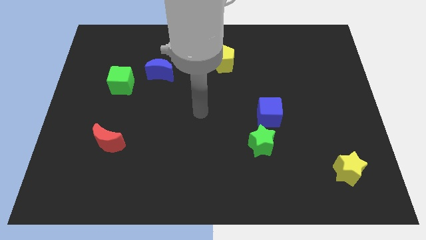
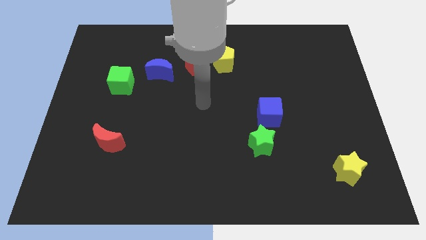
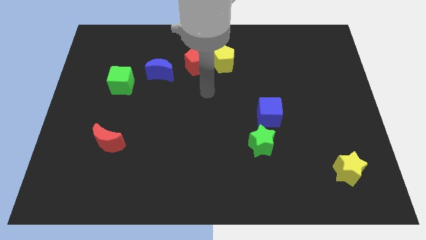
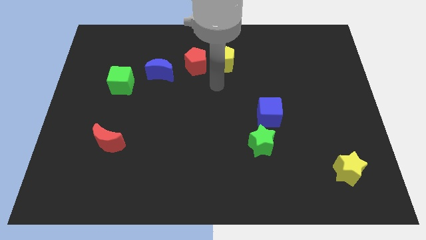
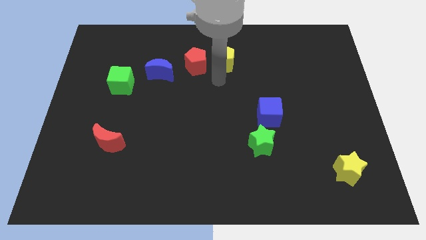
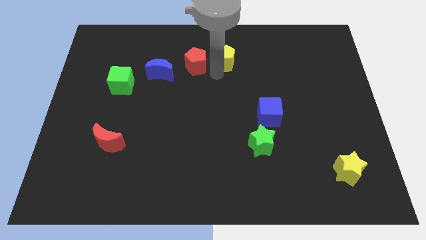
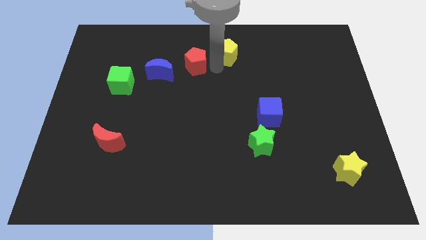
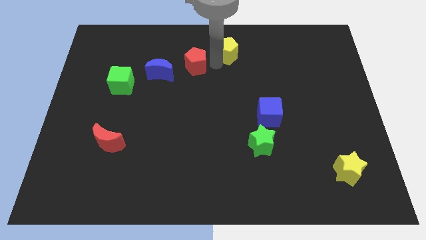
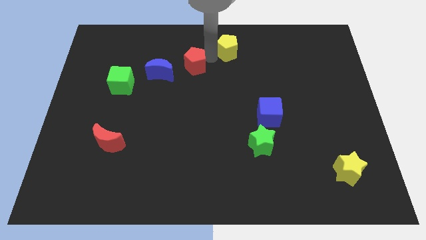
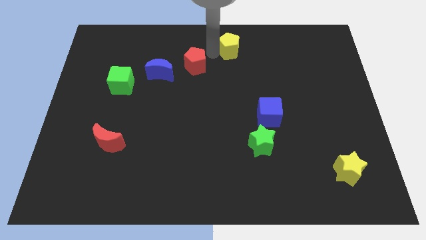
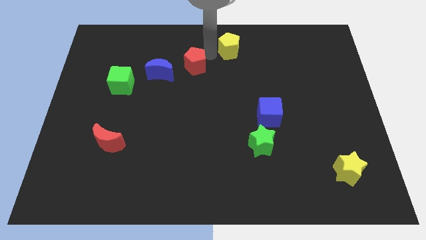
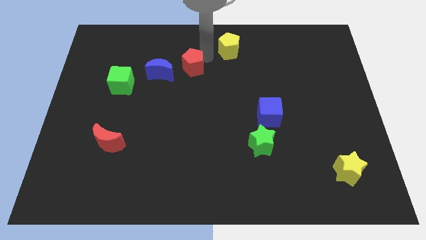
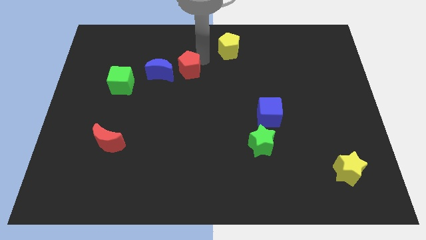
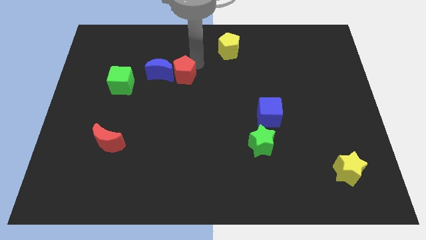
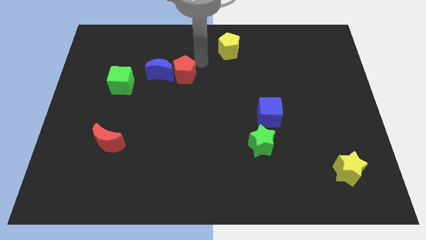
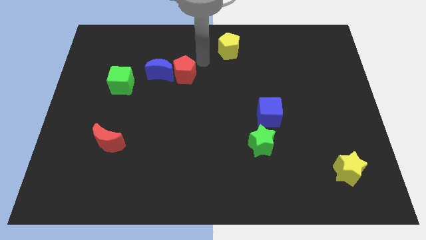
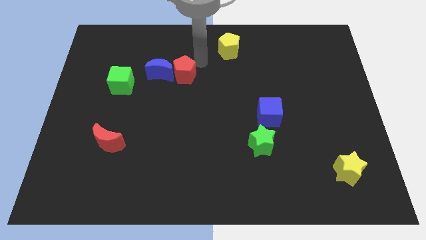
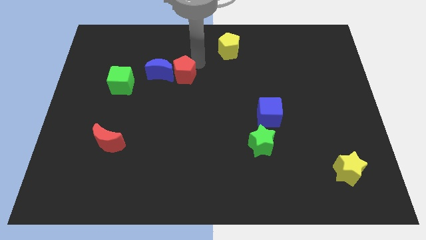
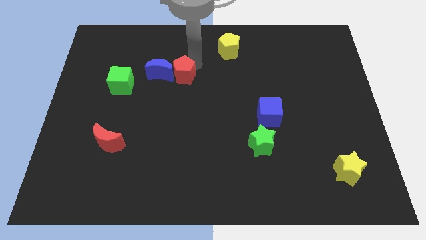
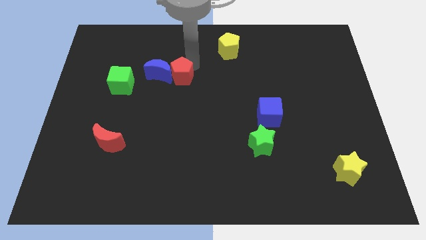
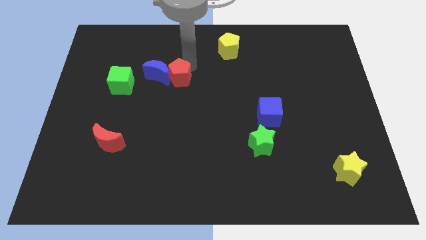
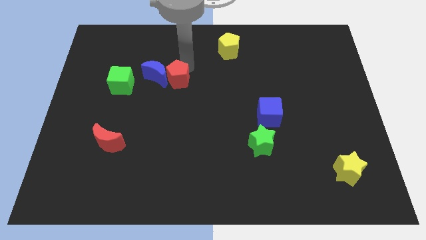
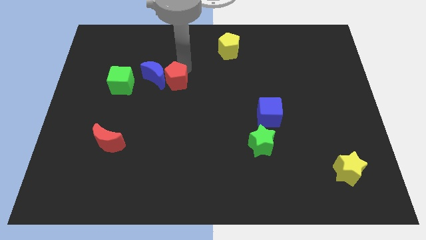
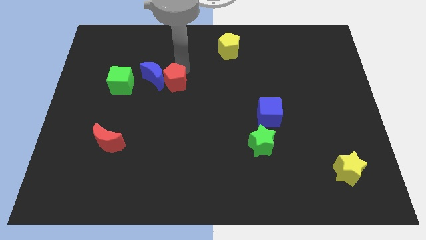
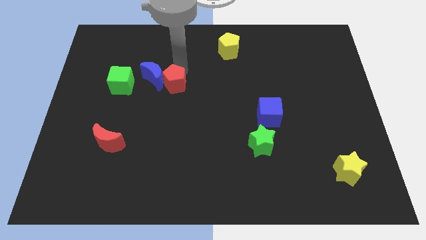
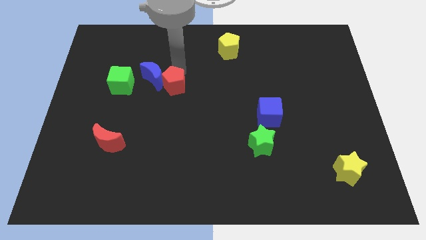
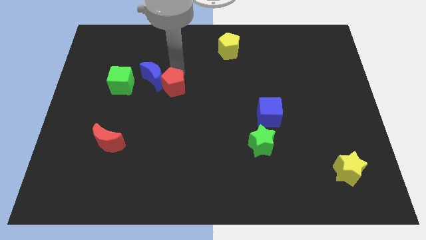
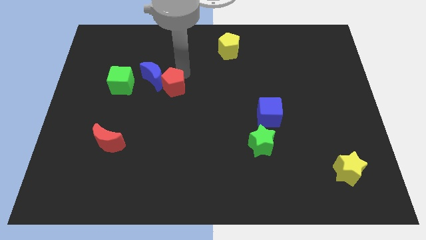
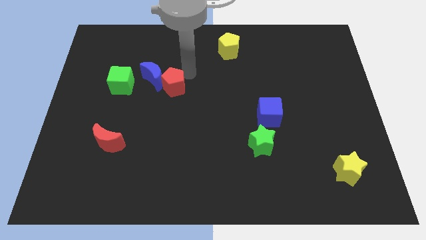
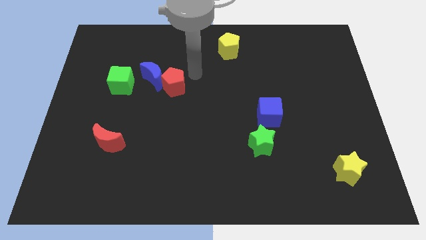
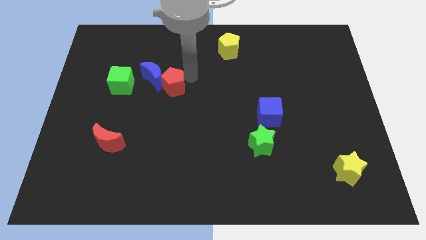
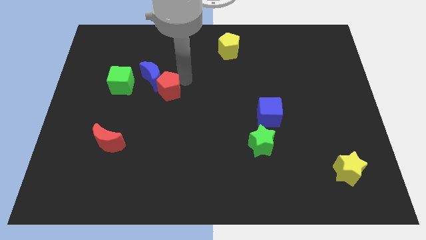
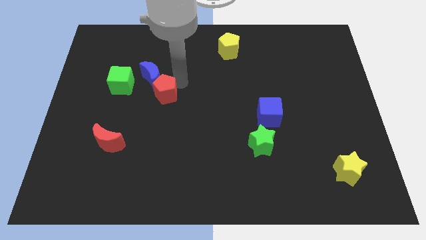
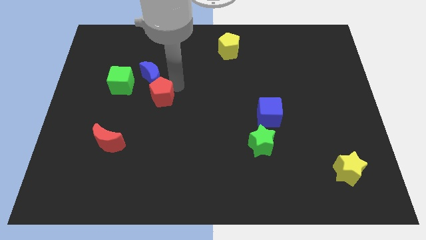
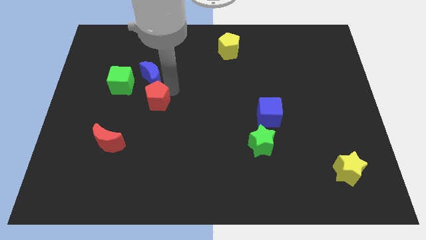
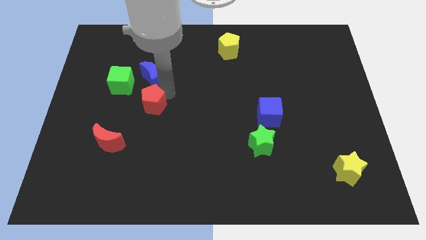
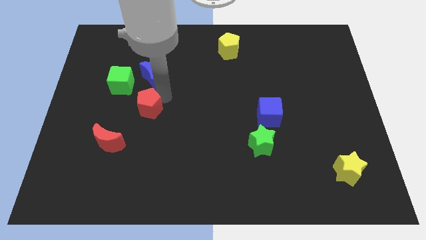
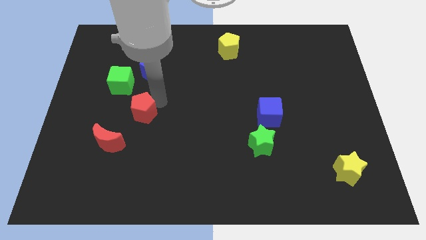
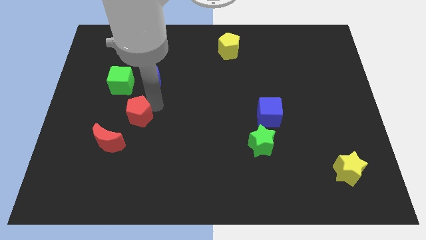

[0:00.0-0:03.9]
slide the red pentagon downwards and to the left diagonally

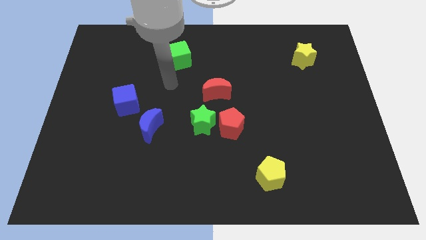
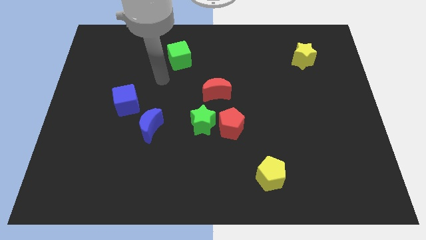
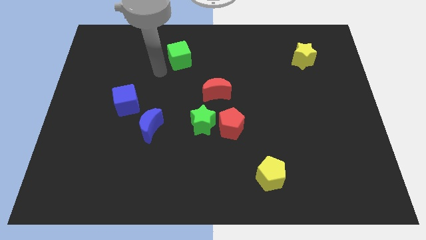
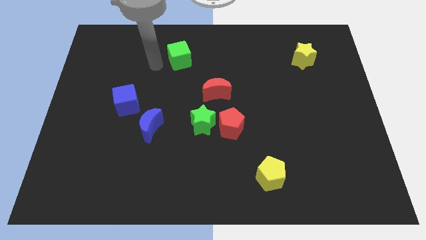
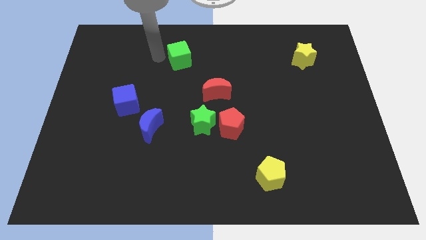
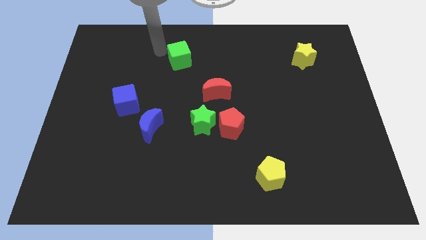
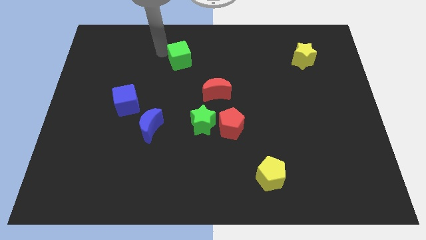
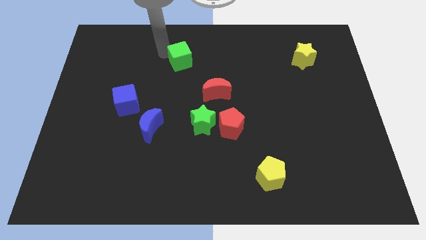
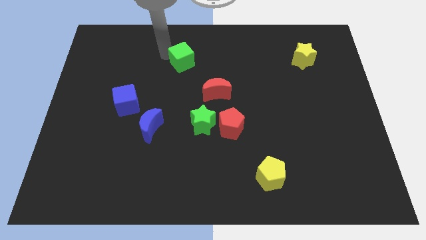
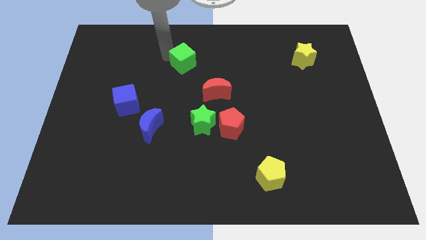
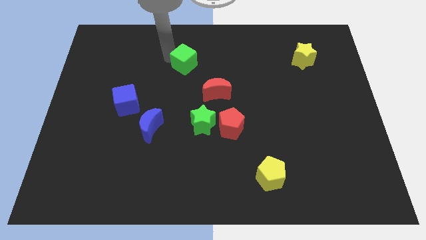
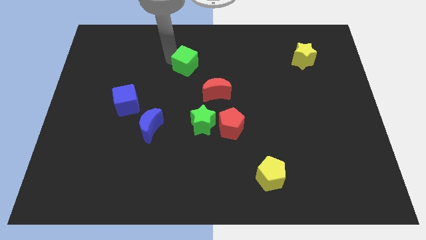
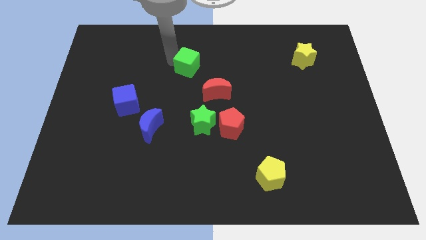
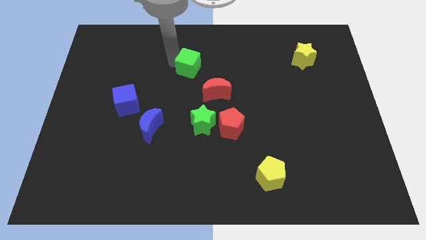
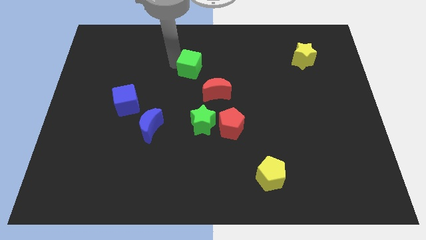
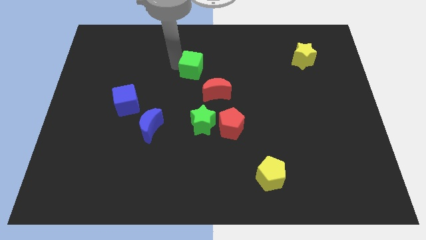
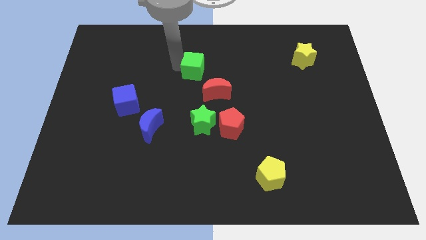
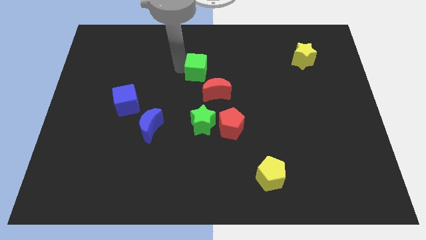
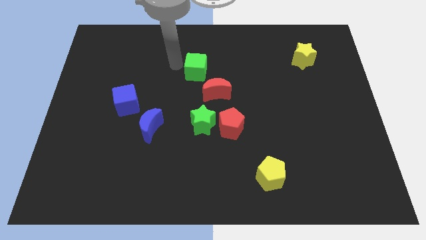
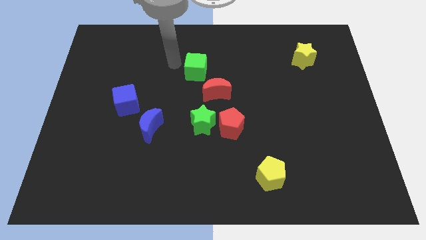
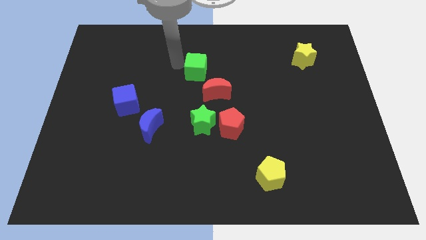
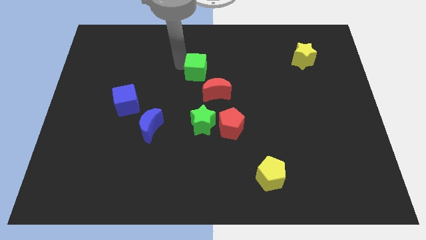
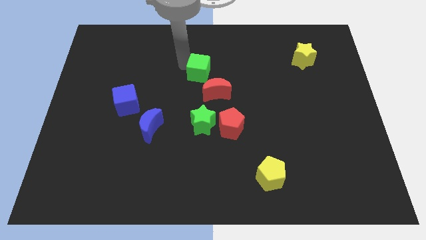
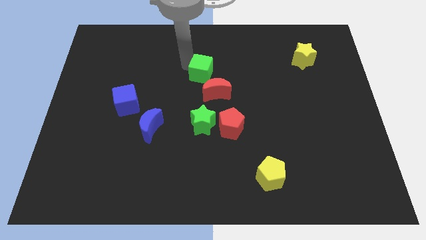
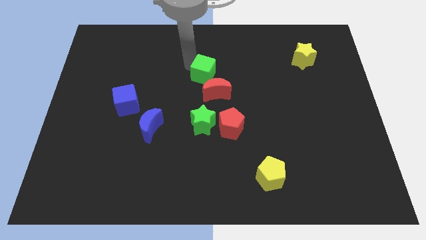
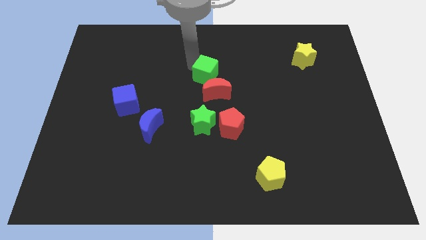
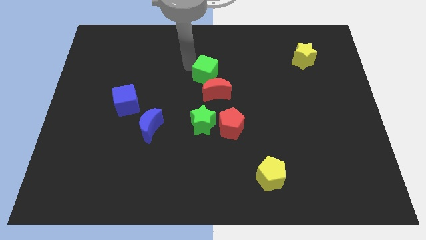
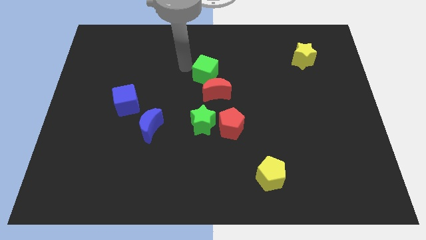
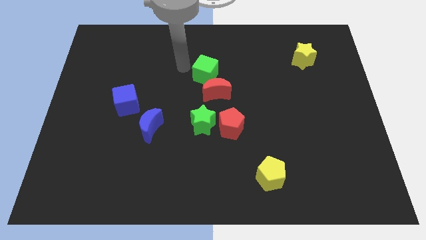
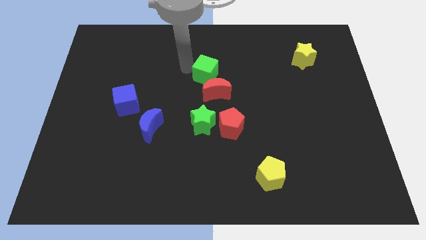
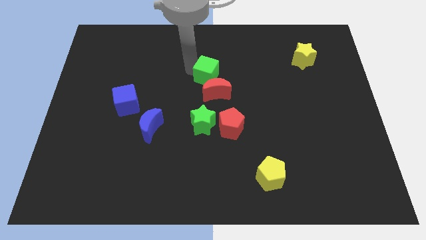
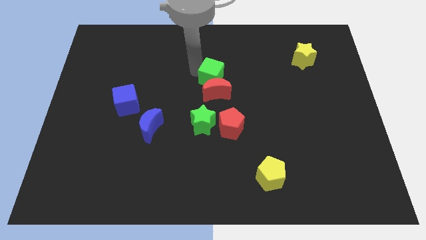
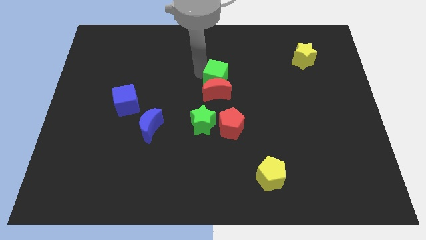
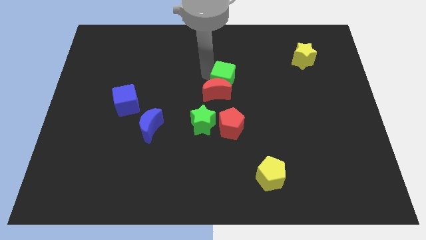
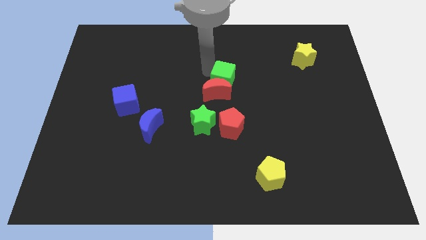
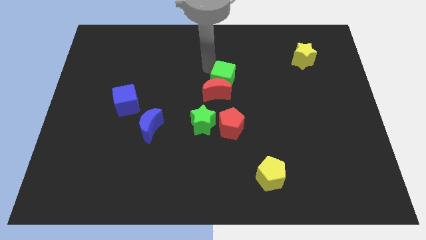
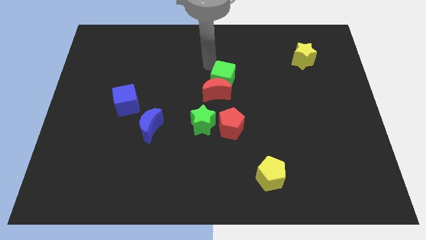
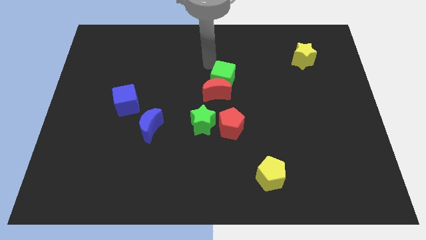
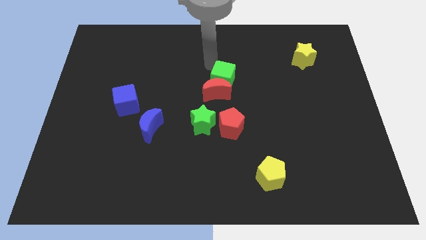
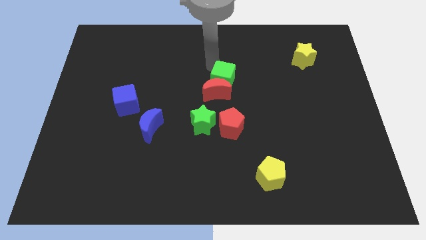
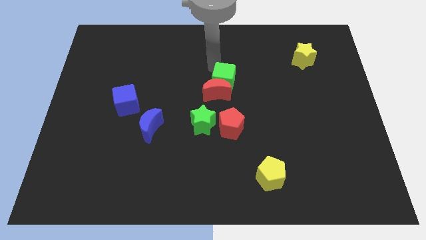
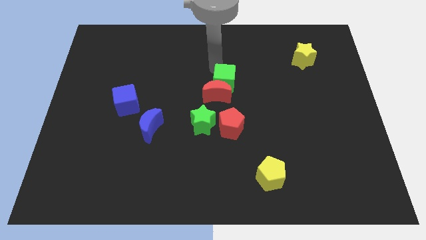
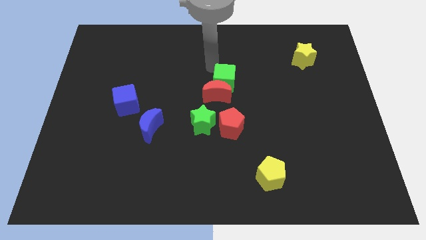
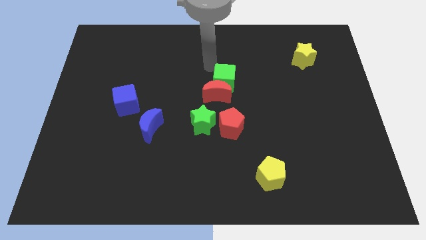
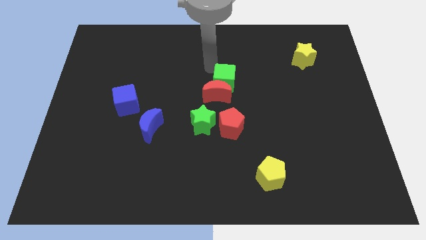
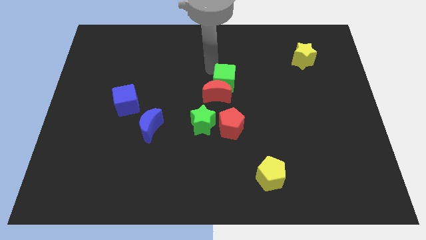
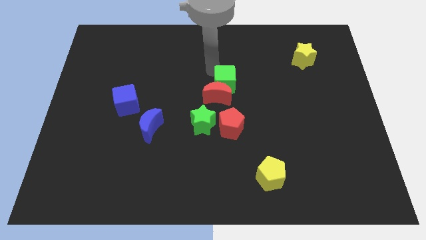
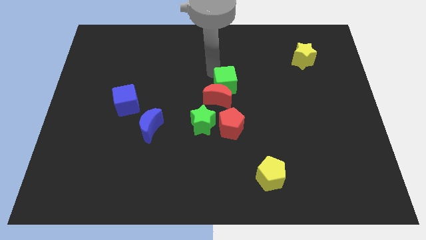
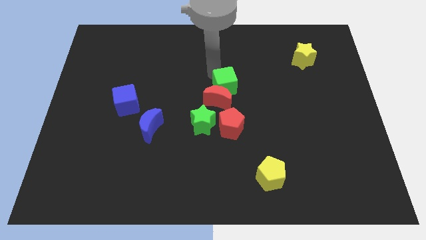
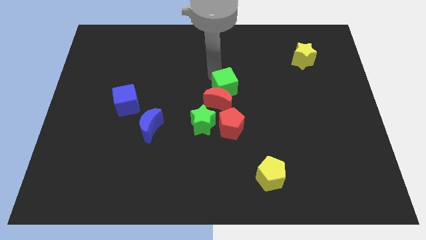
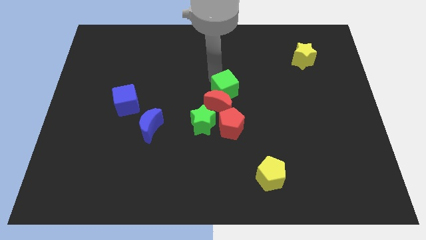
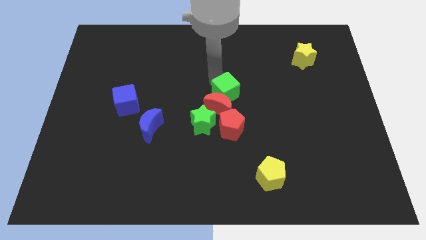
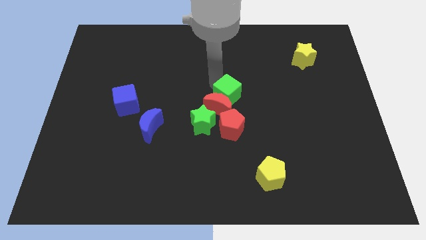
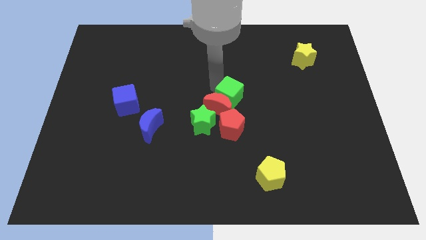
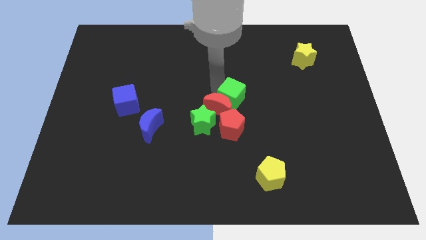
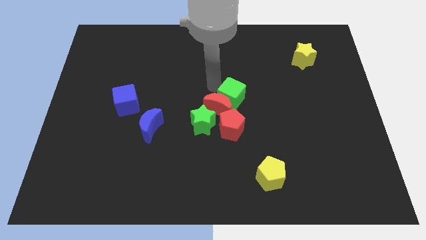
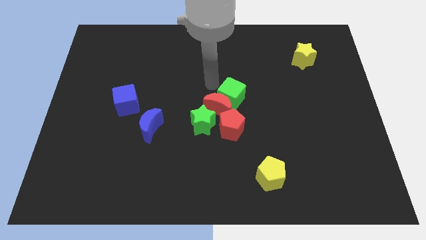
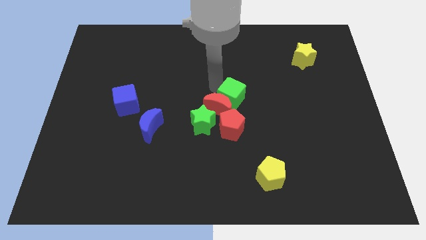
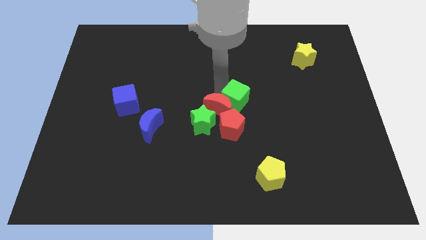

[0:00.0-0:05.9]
move the green cube down and to the right diagonally
